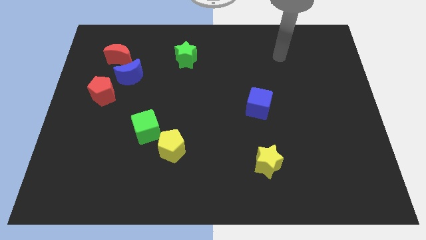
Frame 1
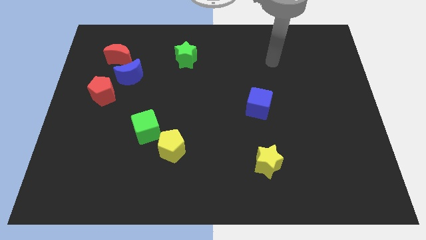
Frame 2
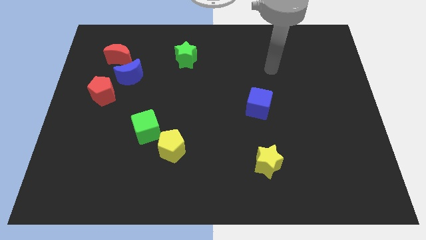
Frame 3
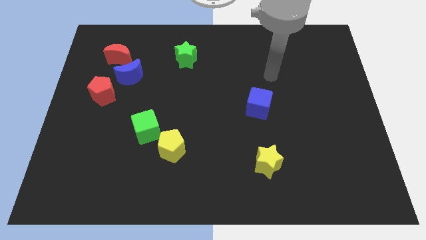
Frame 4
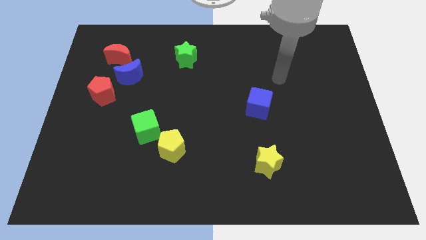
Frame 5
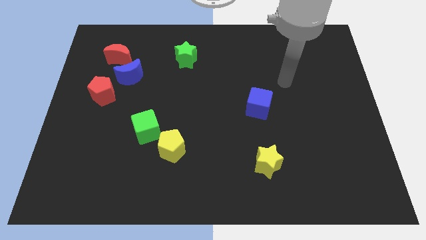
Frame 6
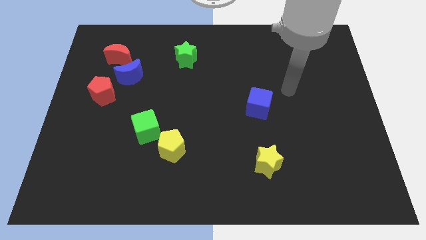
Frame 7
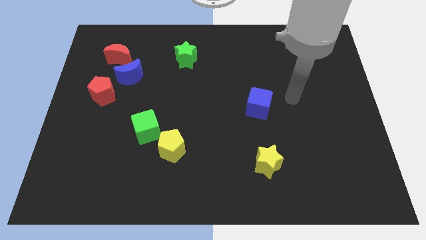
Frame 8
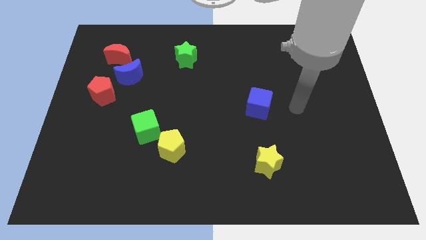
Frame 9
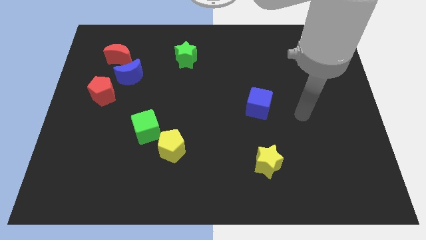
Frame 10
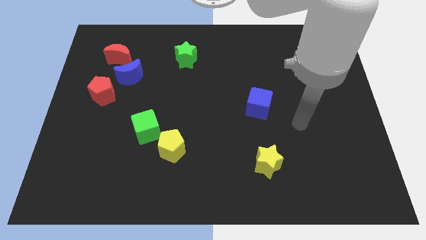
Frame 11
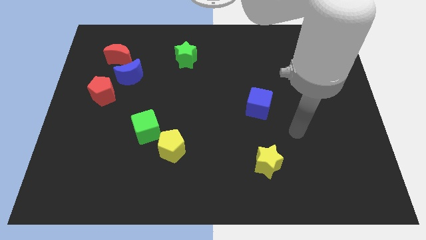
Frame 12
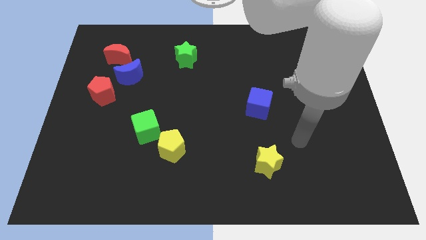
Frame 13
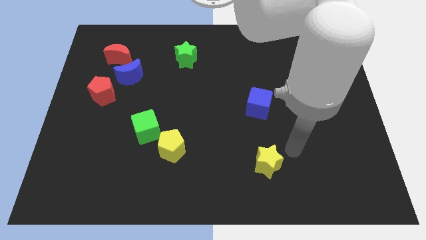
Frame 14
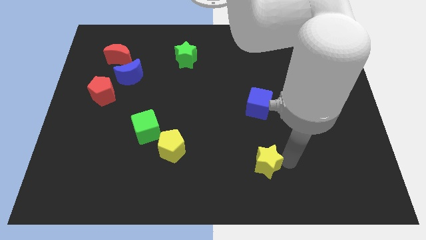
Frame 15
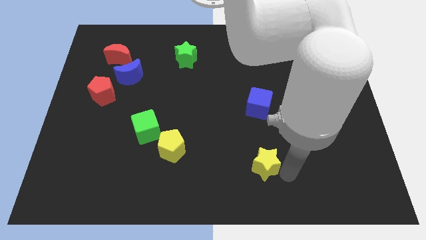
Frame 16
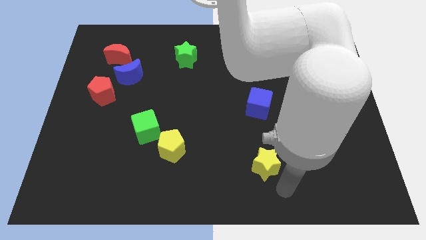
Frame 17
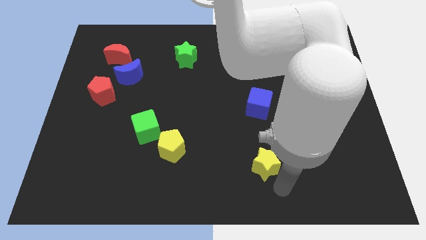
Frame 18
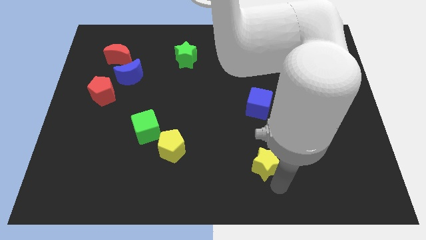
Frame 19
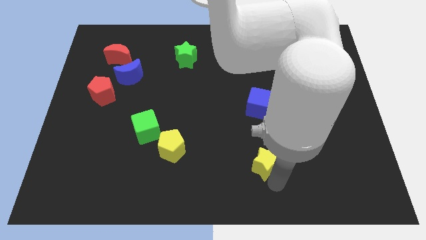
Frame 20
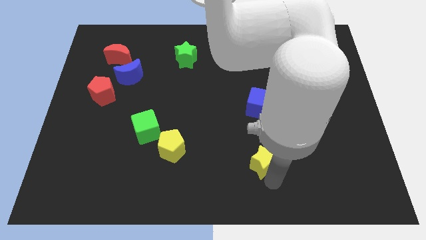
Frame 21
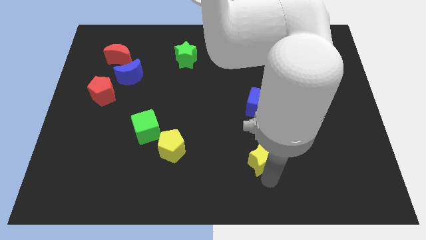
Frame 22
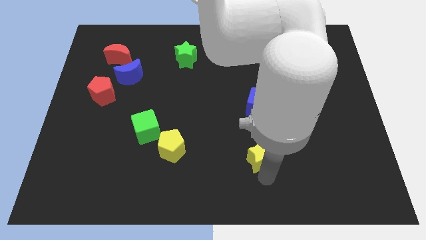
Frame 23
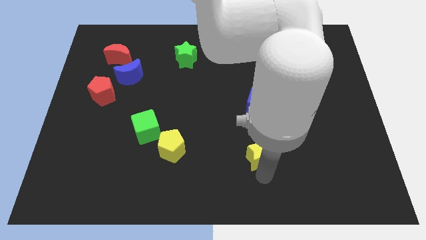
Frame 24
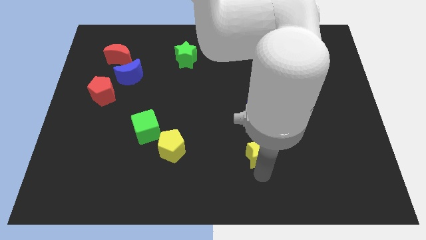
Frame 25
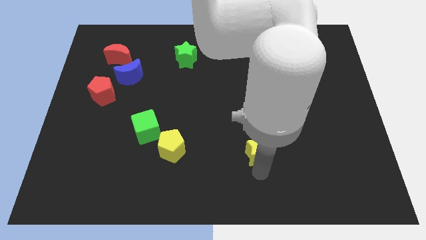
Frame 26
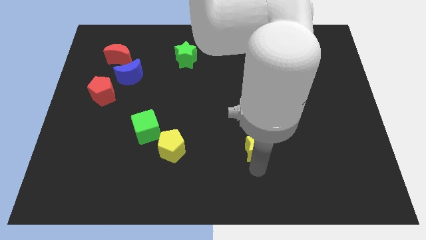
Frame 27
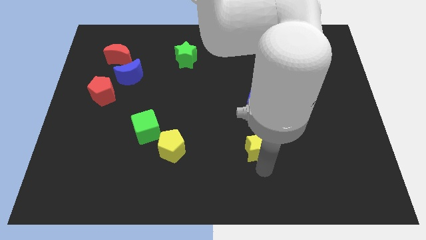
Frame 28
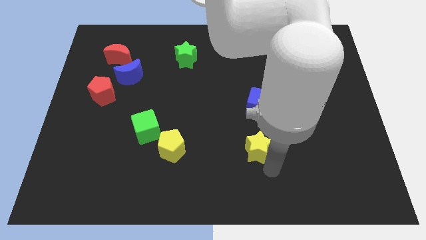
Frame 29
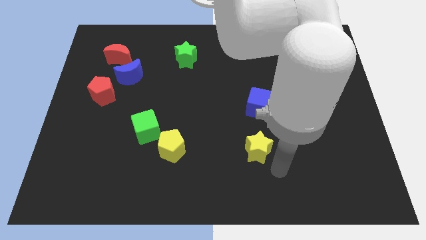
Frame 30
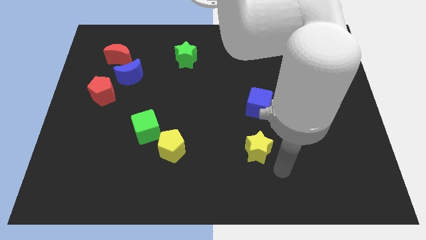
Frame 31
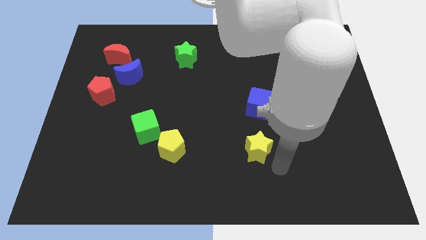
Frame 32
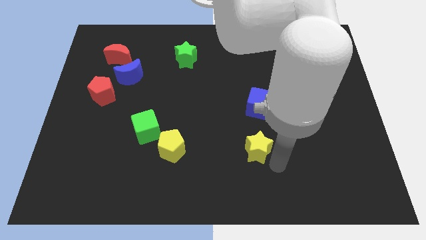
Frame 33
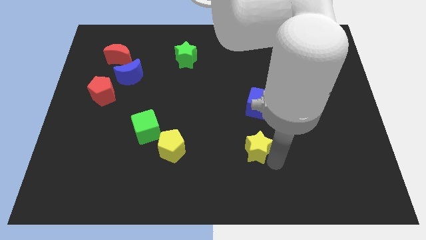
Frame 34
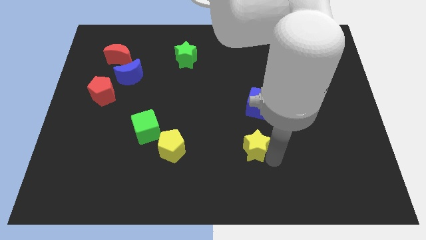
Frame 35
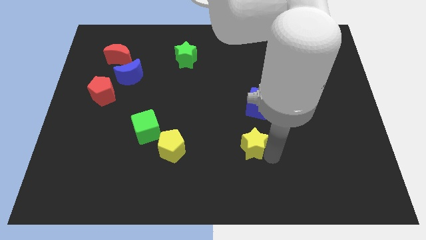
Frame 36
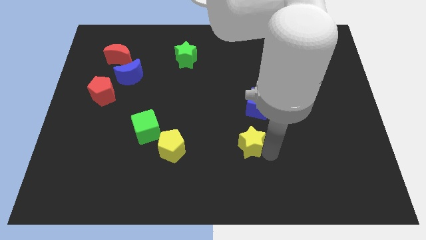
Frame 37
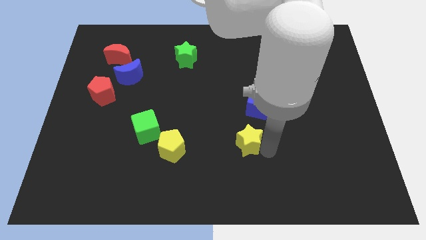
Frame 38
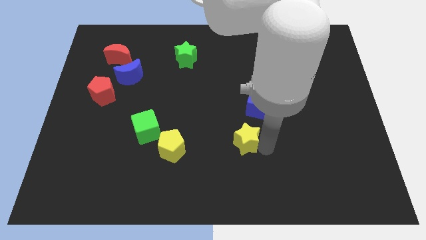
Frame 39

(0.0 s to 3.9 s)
slide the yellow star a little bit upwards and left diagonally

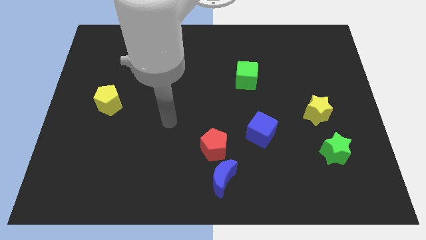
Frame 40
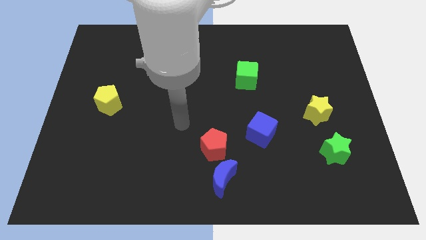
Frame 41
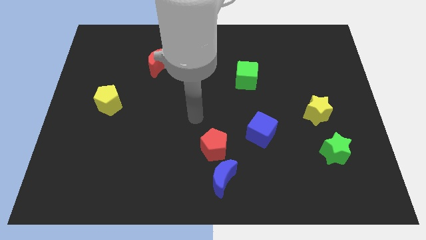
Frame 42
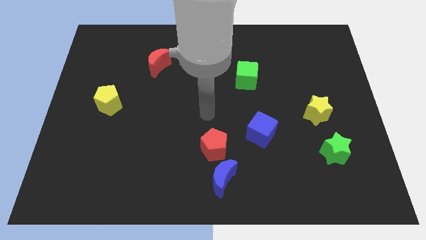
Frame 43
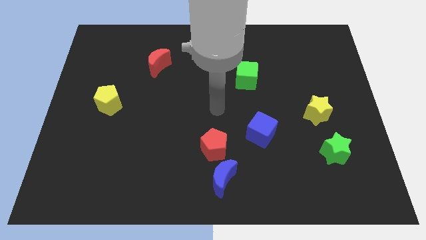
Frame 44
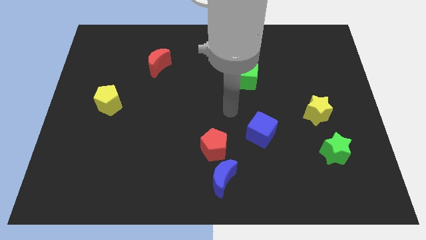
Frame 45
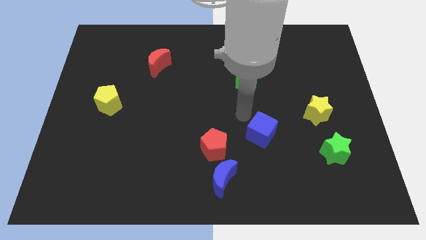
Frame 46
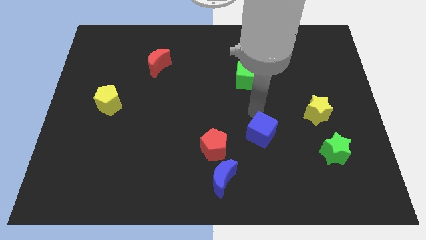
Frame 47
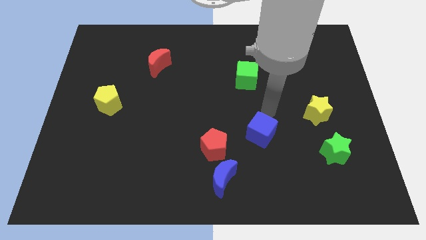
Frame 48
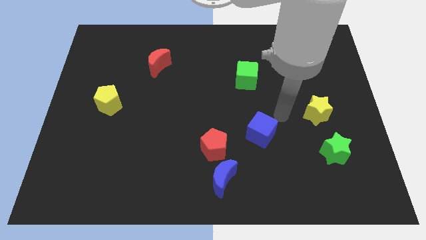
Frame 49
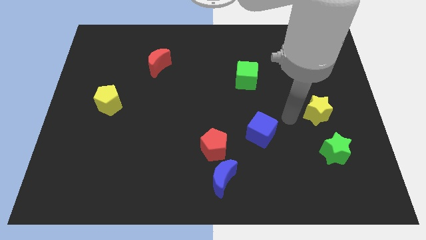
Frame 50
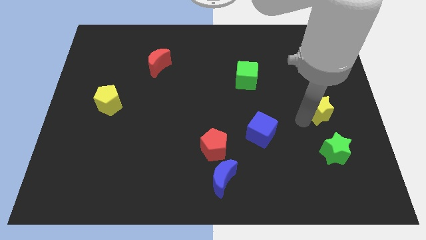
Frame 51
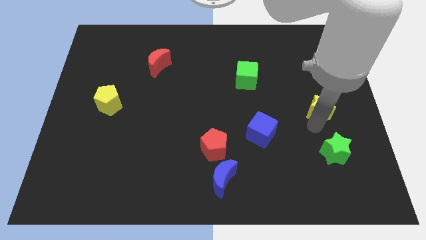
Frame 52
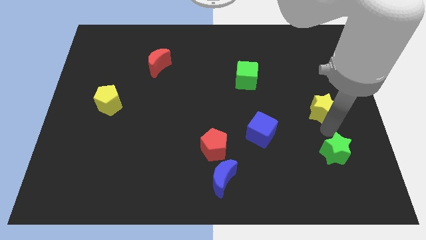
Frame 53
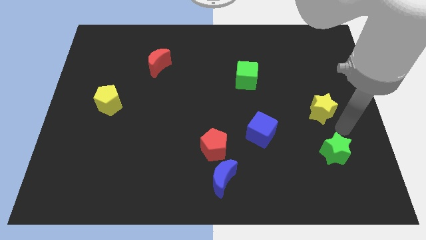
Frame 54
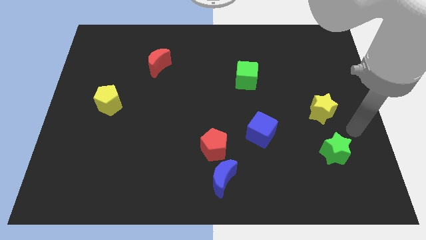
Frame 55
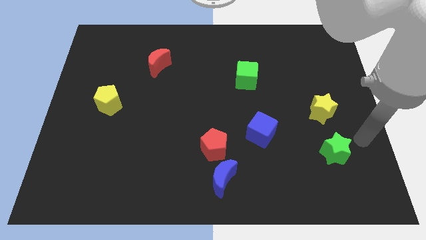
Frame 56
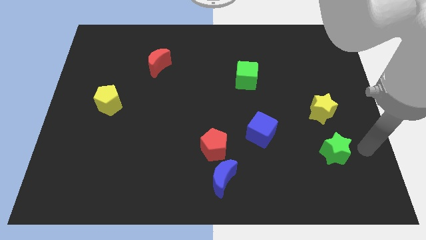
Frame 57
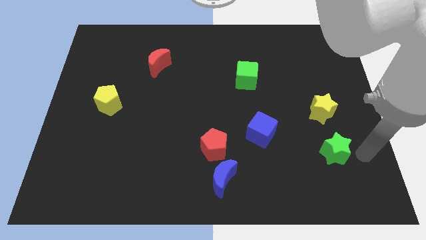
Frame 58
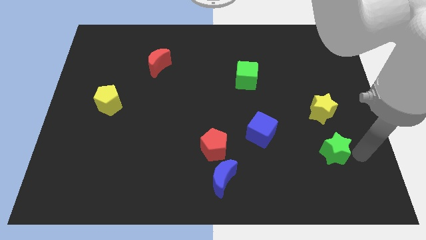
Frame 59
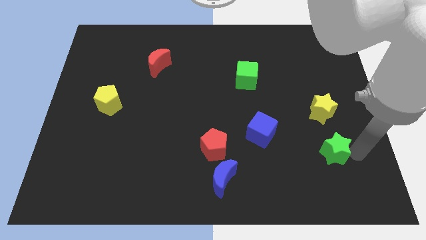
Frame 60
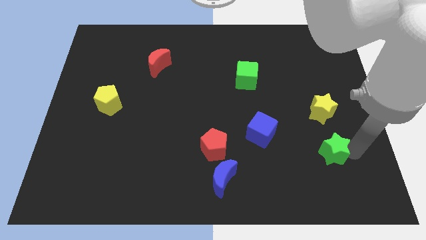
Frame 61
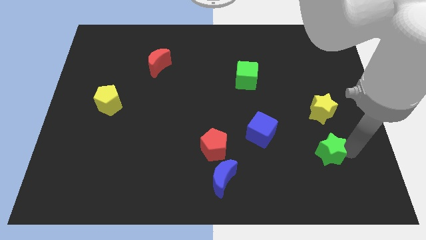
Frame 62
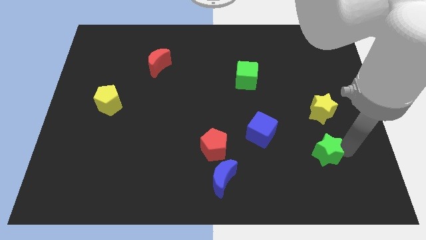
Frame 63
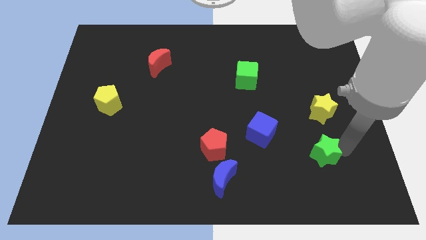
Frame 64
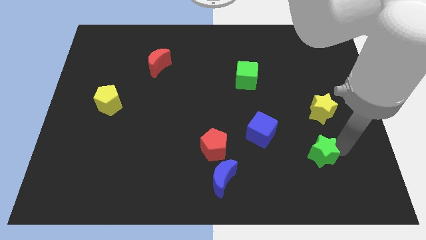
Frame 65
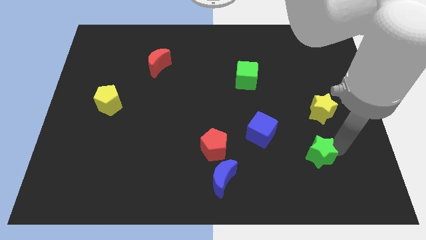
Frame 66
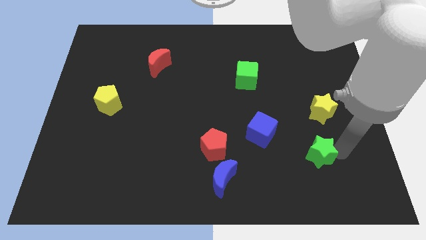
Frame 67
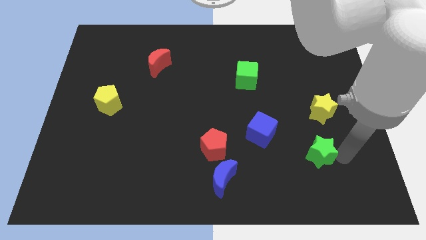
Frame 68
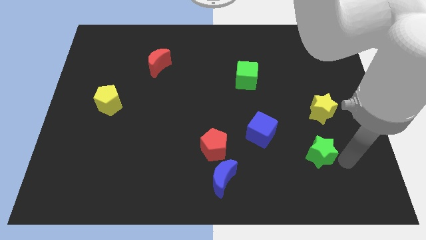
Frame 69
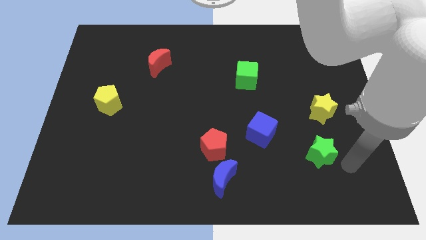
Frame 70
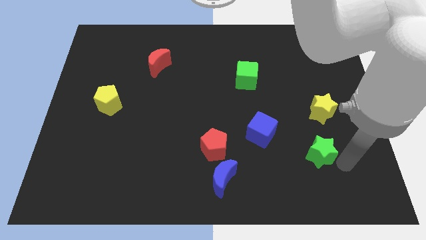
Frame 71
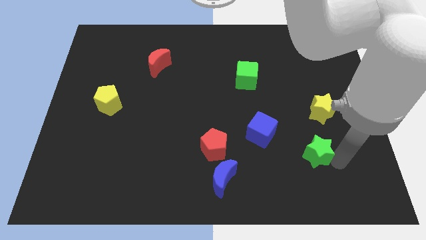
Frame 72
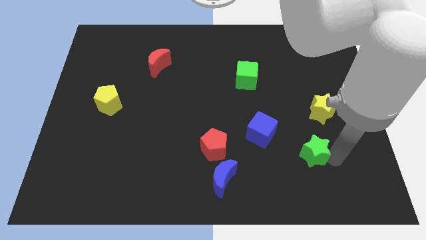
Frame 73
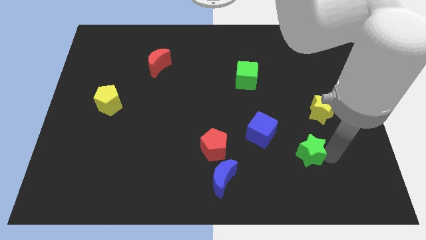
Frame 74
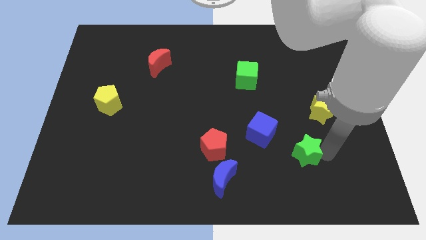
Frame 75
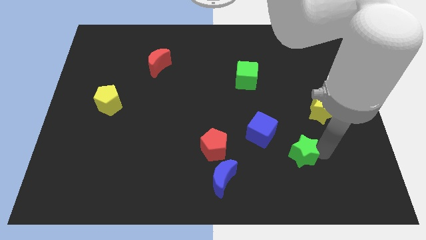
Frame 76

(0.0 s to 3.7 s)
slide the green star a little left

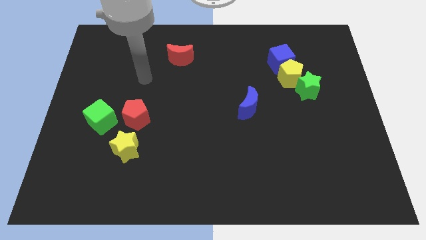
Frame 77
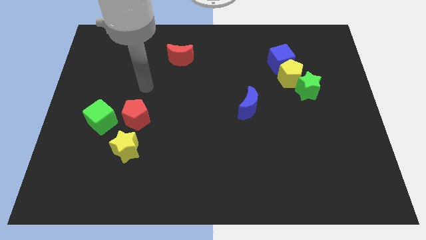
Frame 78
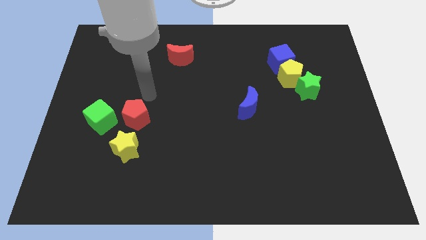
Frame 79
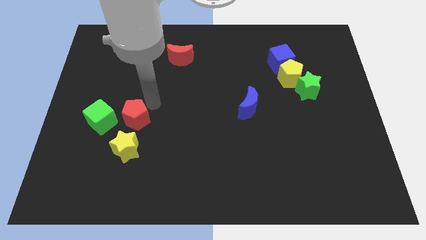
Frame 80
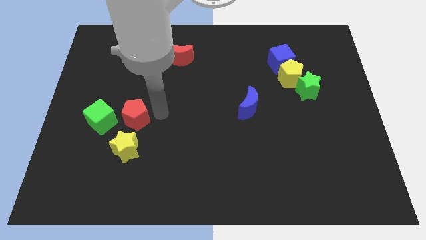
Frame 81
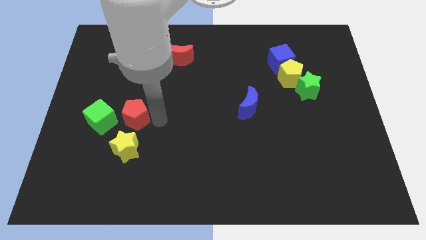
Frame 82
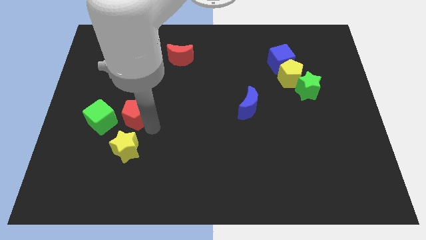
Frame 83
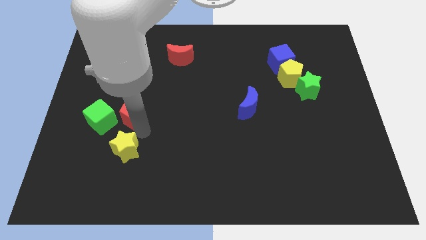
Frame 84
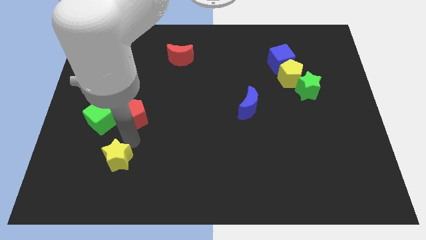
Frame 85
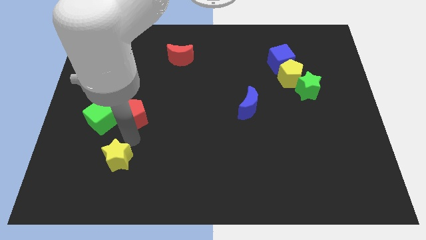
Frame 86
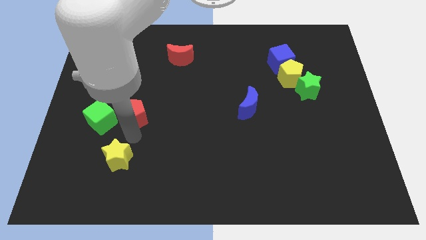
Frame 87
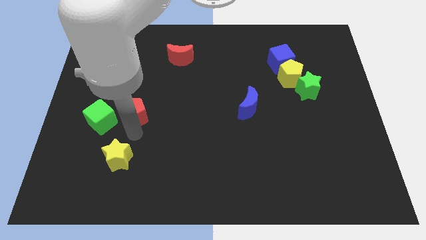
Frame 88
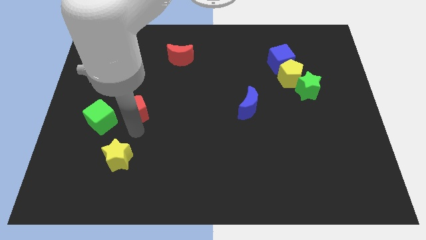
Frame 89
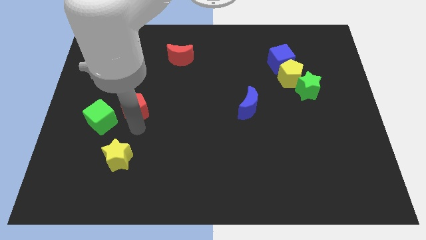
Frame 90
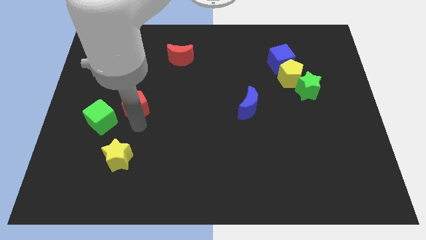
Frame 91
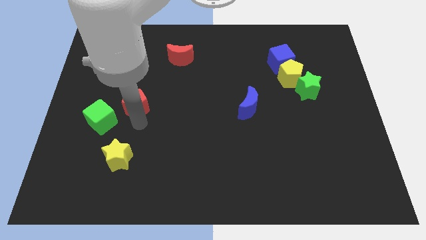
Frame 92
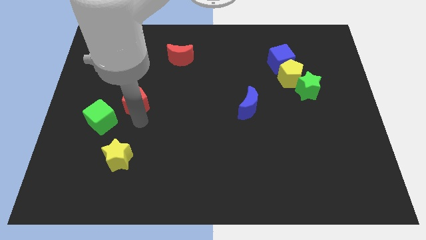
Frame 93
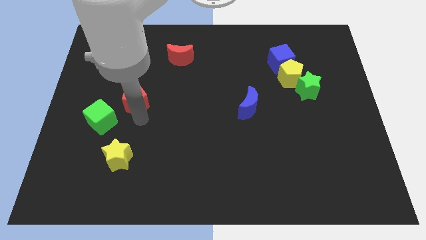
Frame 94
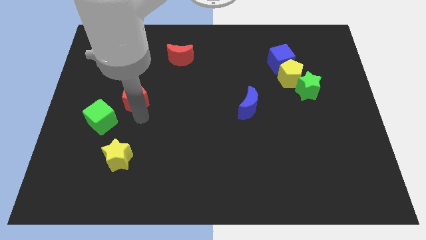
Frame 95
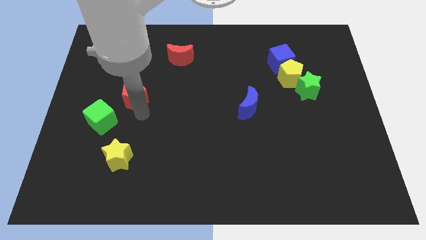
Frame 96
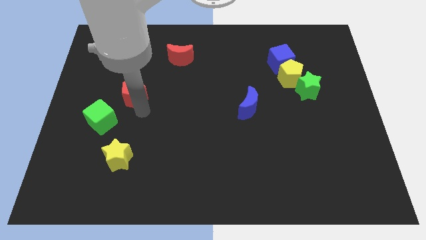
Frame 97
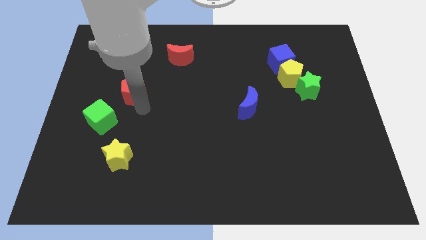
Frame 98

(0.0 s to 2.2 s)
push the red pentagon a bit upwards
